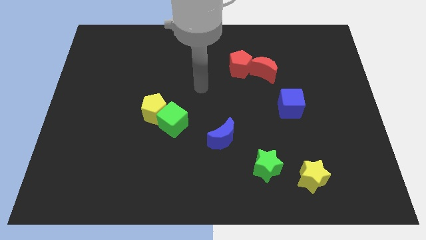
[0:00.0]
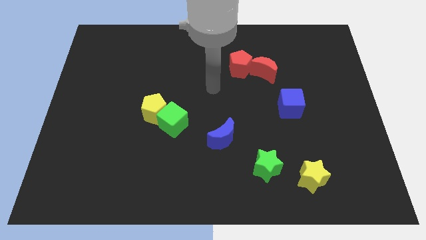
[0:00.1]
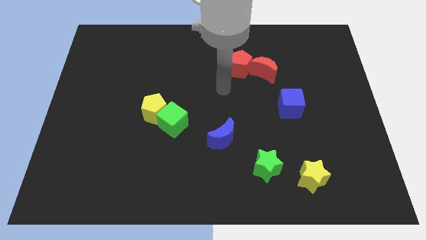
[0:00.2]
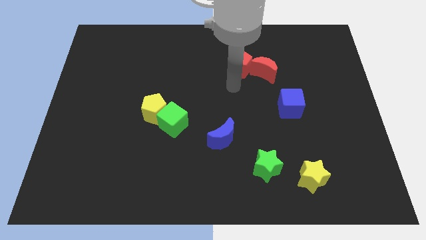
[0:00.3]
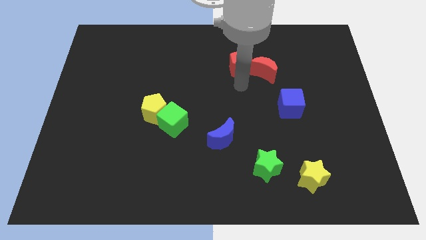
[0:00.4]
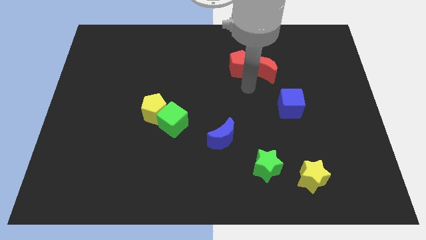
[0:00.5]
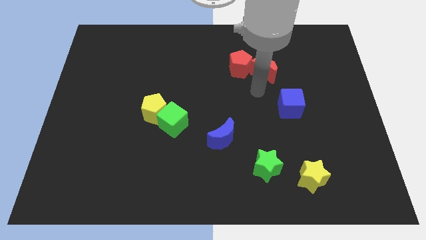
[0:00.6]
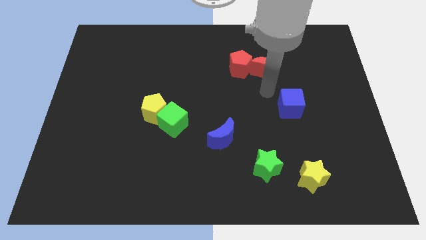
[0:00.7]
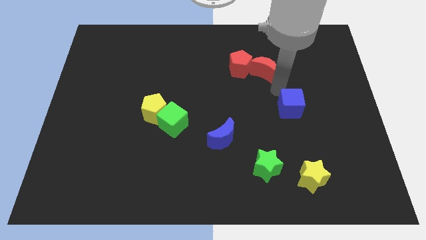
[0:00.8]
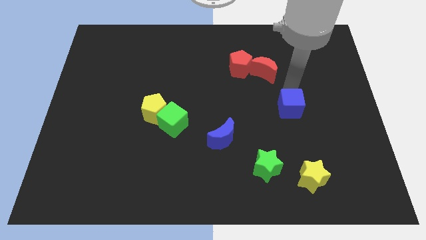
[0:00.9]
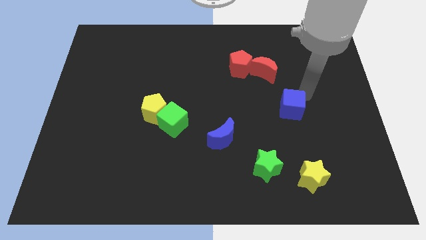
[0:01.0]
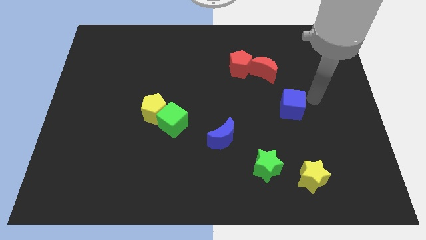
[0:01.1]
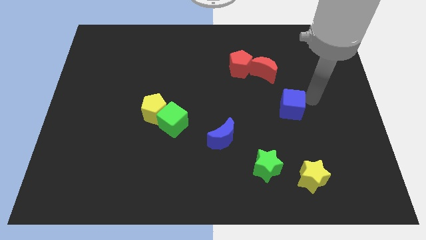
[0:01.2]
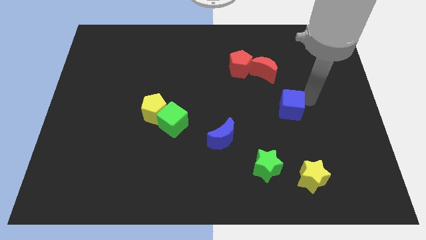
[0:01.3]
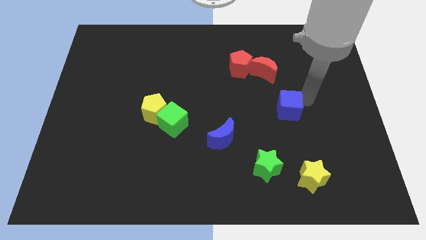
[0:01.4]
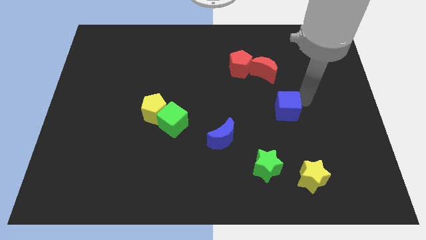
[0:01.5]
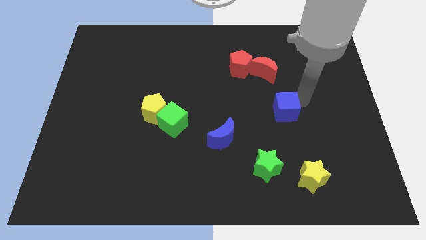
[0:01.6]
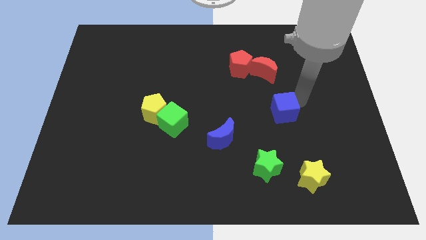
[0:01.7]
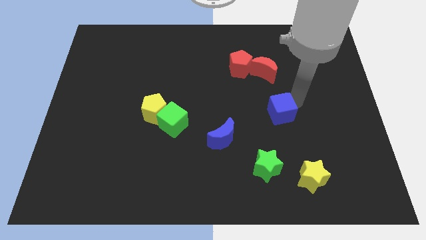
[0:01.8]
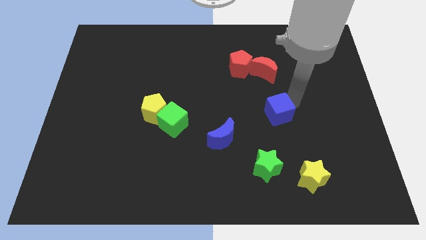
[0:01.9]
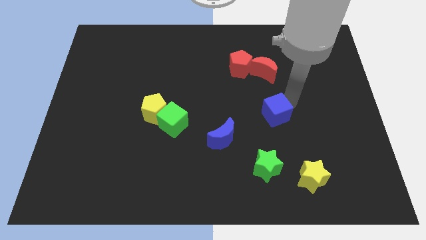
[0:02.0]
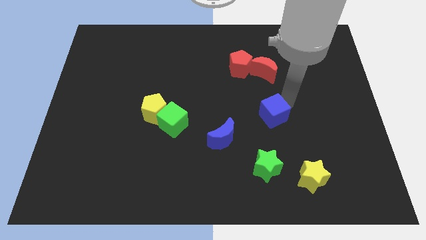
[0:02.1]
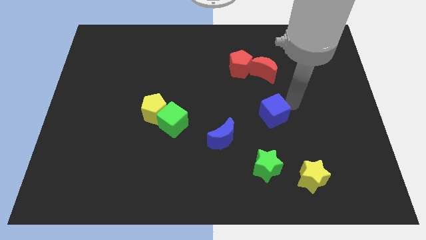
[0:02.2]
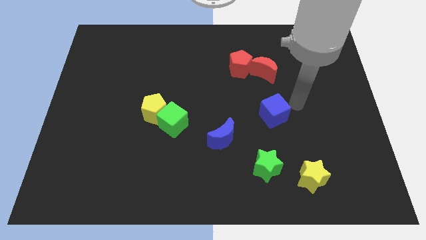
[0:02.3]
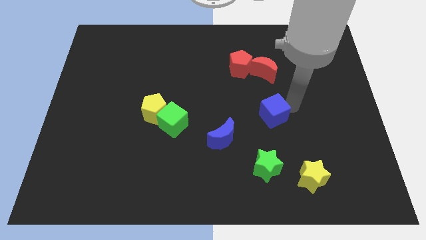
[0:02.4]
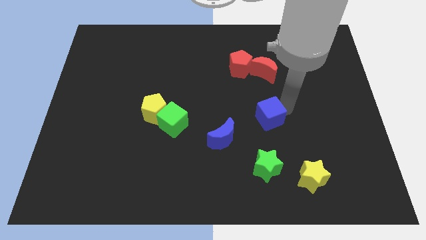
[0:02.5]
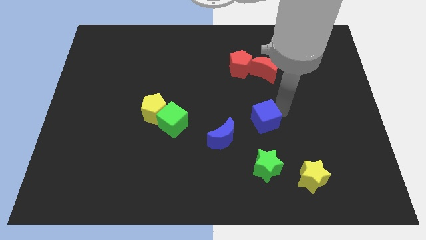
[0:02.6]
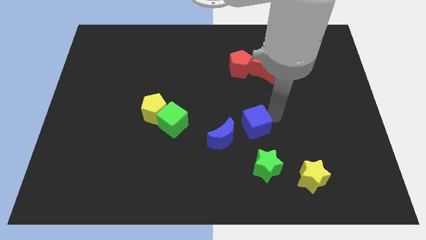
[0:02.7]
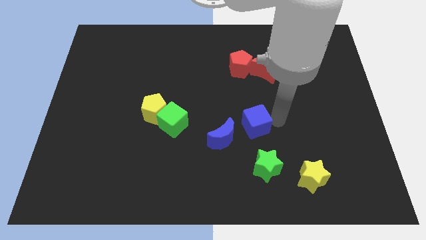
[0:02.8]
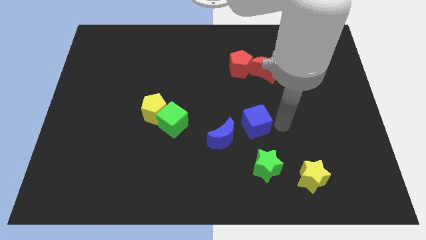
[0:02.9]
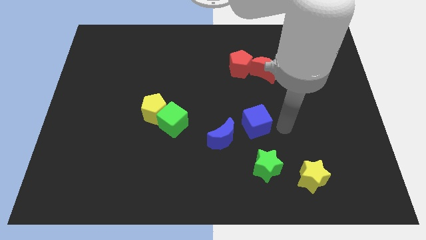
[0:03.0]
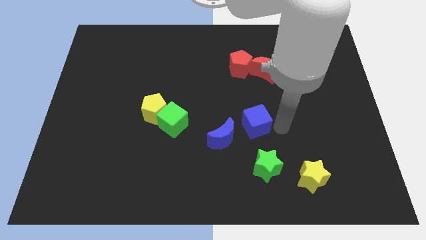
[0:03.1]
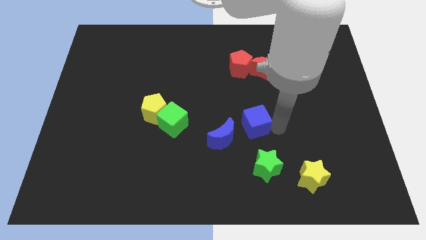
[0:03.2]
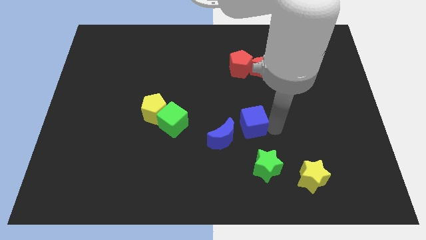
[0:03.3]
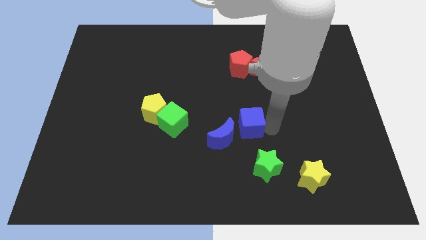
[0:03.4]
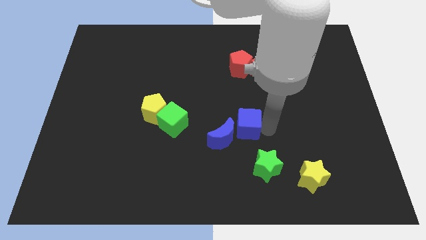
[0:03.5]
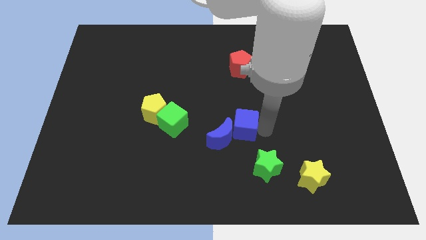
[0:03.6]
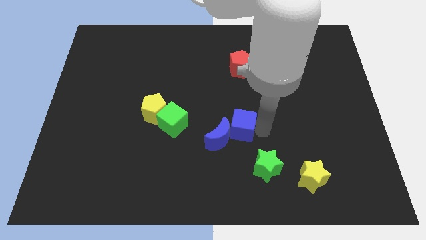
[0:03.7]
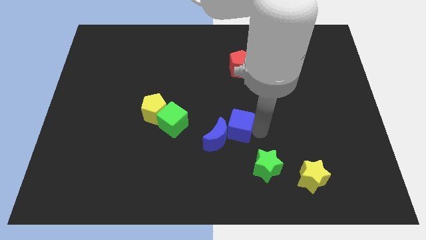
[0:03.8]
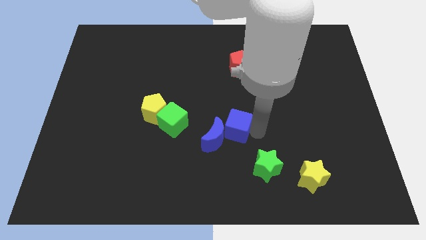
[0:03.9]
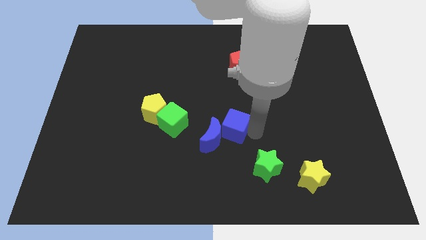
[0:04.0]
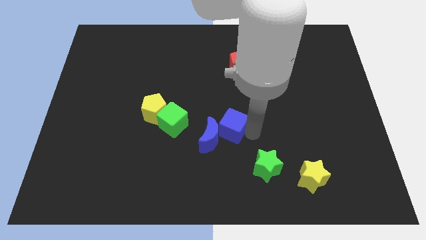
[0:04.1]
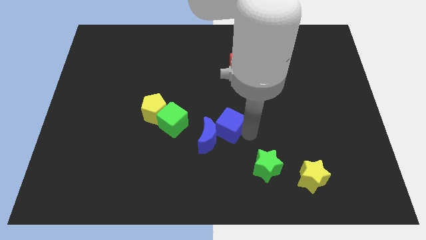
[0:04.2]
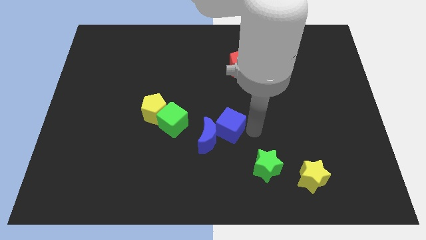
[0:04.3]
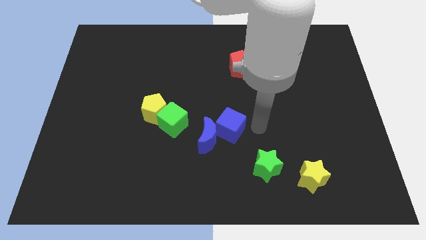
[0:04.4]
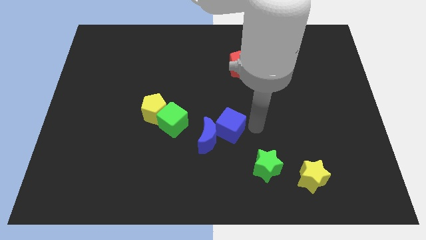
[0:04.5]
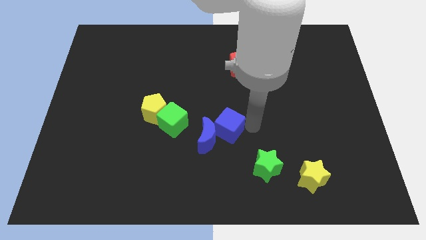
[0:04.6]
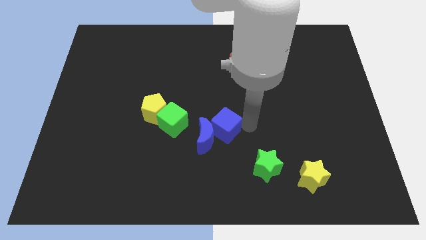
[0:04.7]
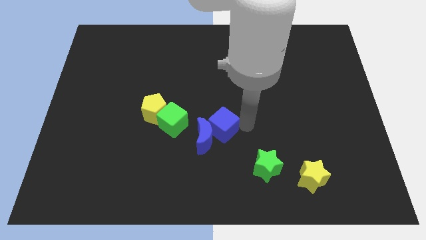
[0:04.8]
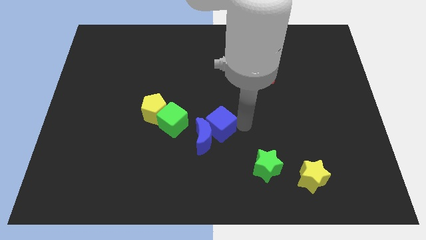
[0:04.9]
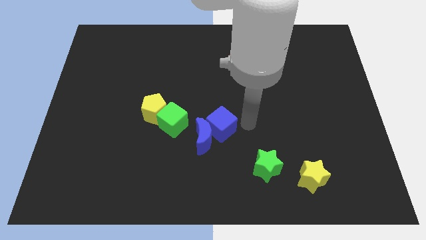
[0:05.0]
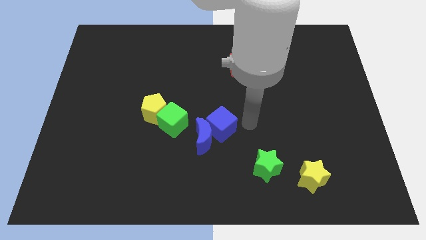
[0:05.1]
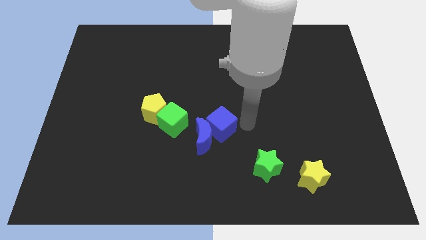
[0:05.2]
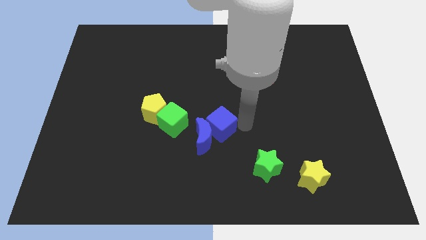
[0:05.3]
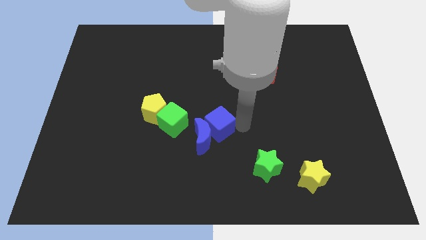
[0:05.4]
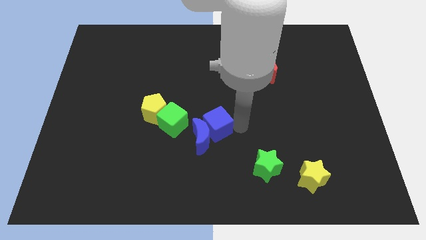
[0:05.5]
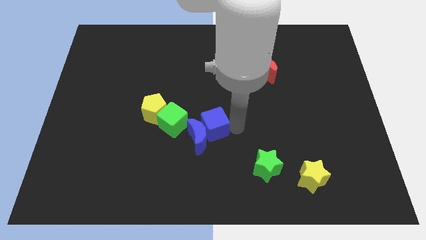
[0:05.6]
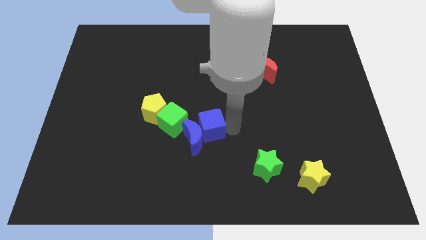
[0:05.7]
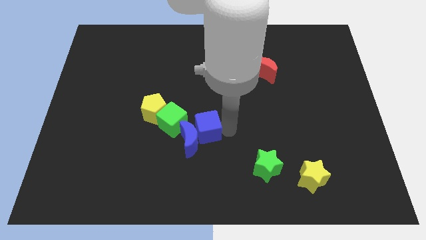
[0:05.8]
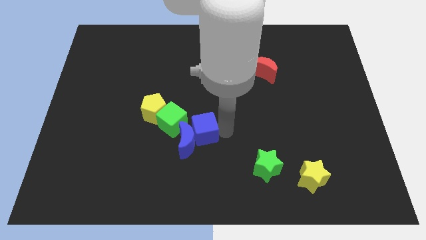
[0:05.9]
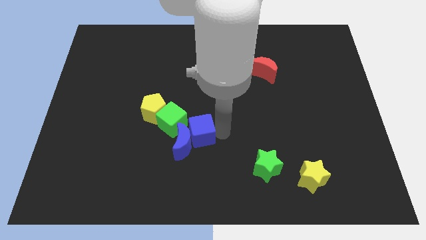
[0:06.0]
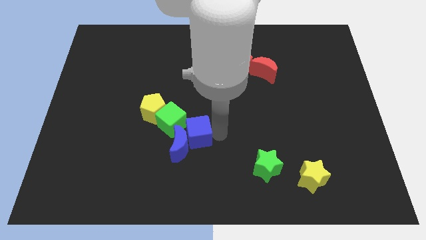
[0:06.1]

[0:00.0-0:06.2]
move the blue cube to the bottom right of the yellow pentagon

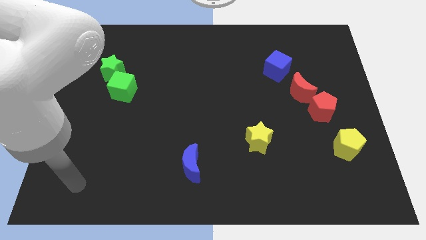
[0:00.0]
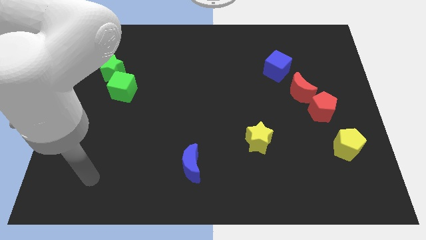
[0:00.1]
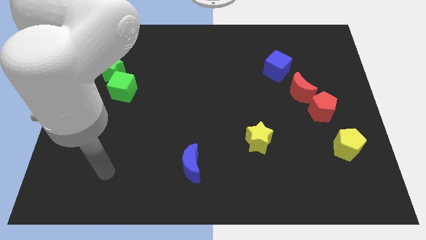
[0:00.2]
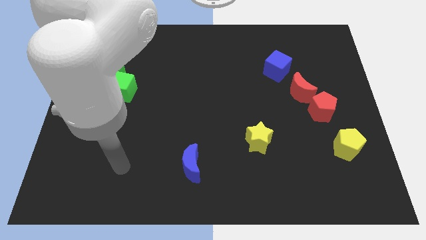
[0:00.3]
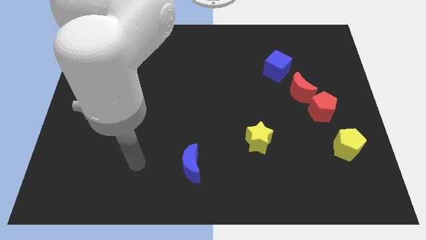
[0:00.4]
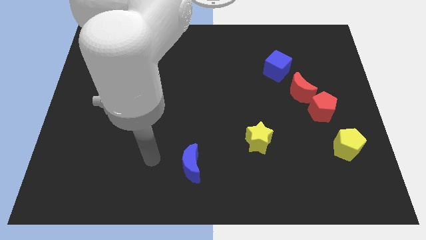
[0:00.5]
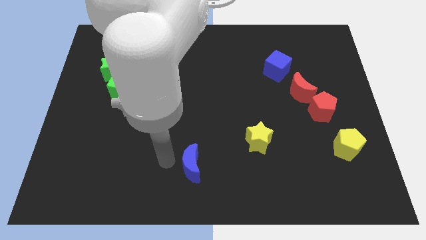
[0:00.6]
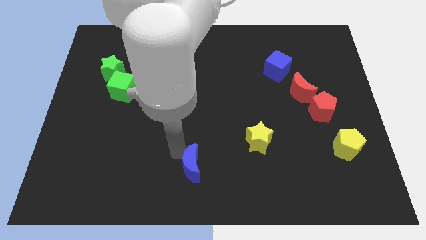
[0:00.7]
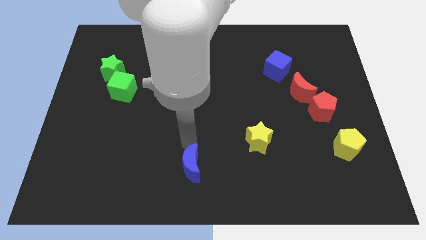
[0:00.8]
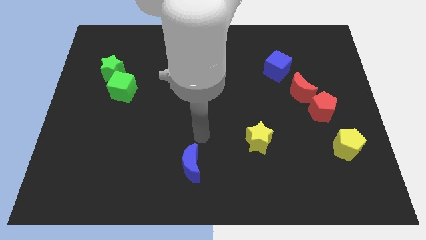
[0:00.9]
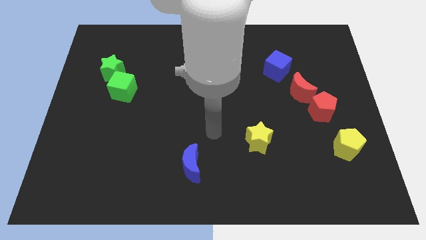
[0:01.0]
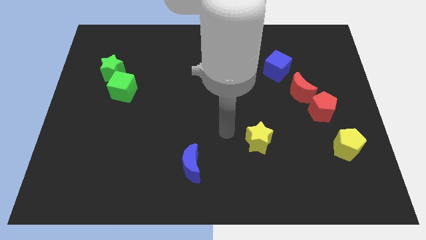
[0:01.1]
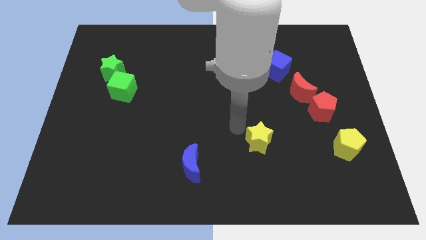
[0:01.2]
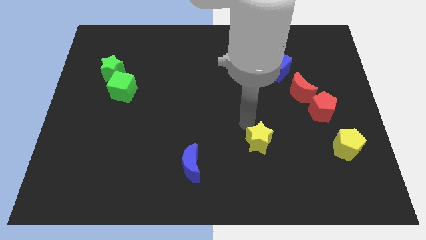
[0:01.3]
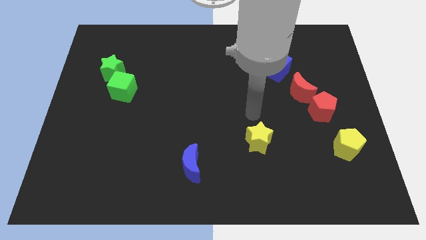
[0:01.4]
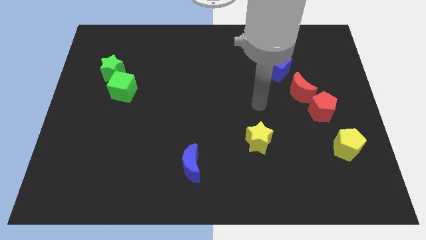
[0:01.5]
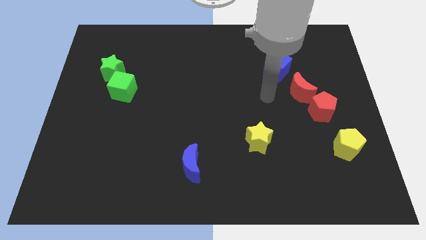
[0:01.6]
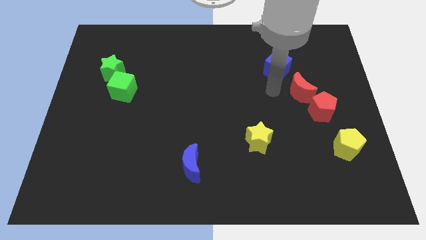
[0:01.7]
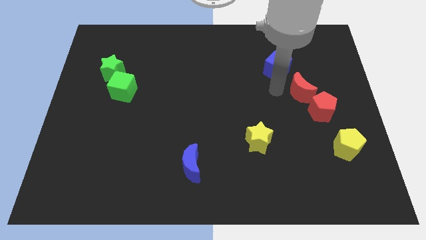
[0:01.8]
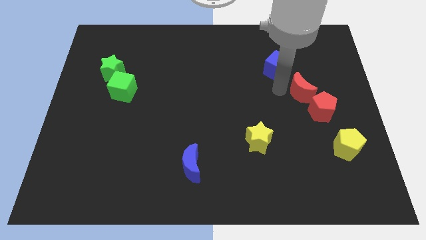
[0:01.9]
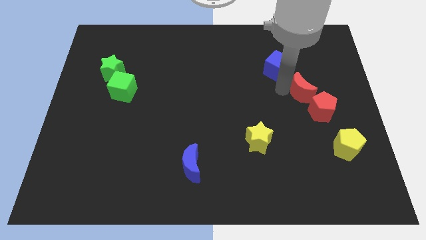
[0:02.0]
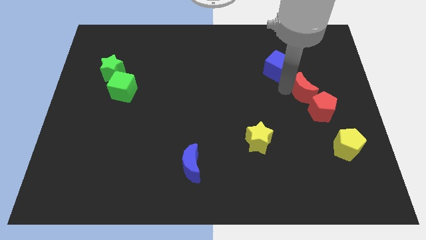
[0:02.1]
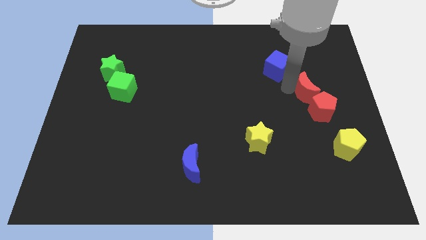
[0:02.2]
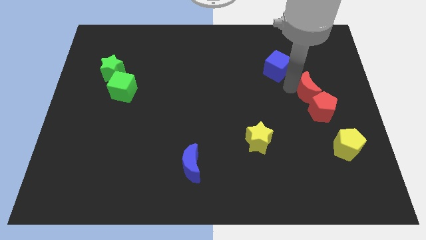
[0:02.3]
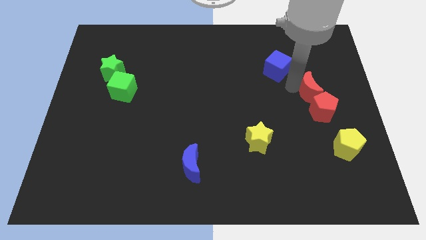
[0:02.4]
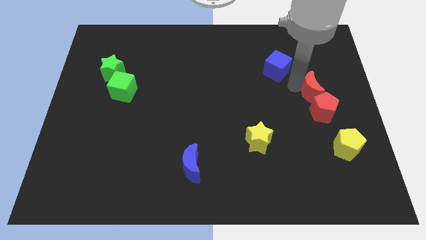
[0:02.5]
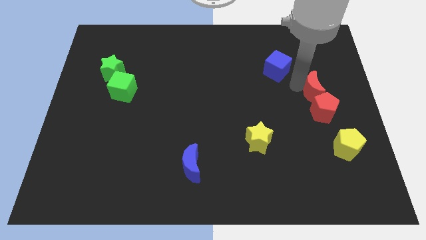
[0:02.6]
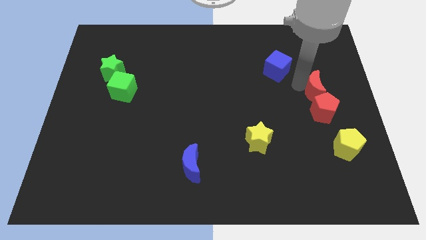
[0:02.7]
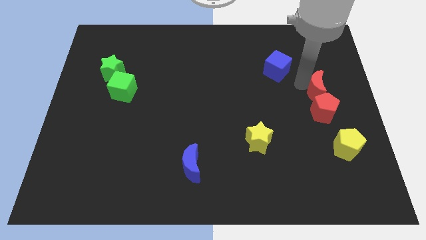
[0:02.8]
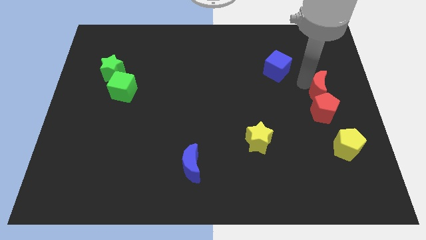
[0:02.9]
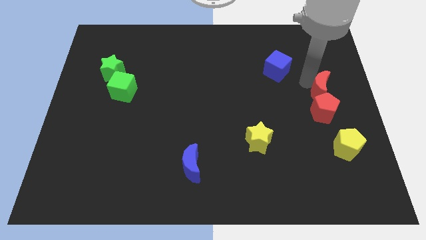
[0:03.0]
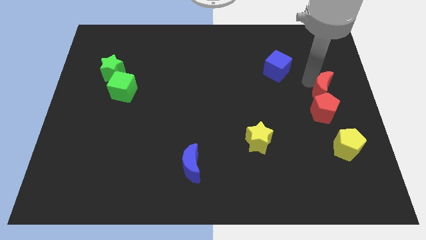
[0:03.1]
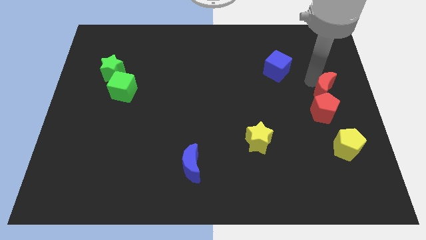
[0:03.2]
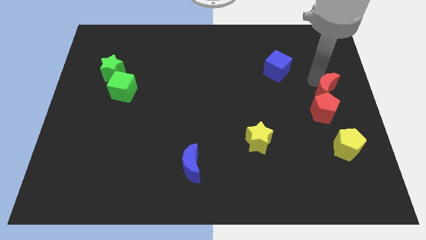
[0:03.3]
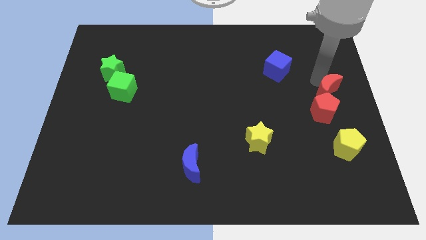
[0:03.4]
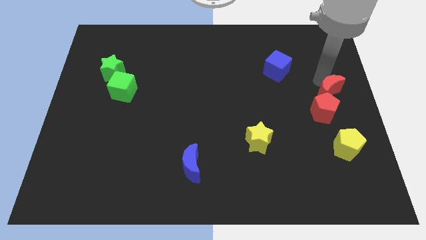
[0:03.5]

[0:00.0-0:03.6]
push the red moon to the top of the yellow pentagon
